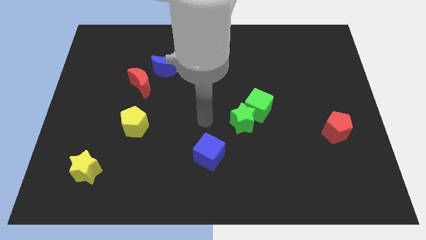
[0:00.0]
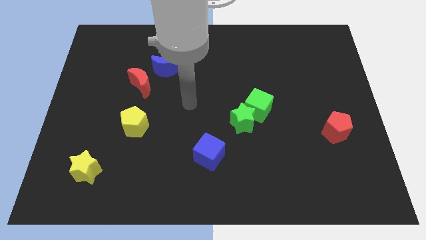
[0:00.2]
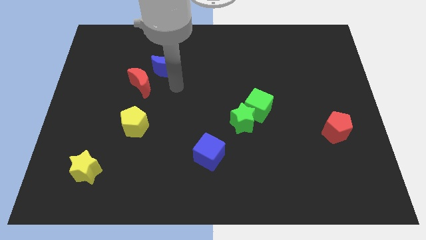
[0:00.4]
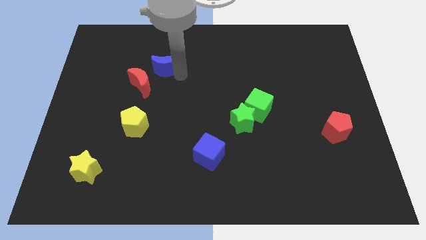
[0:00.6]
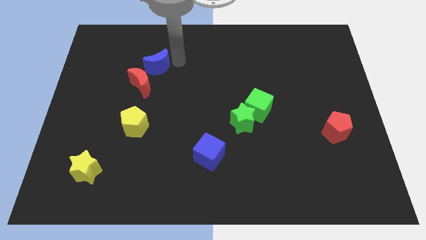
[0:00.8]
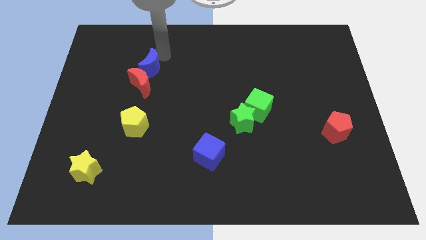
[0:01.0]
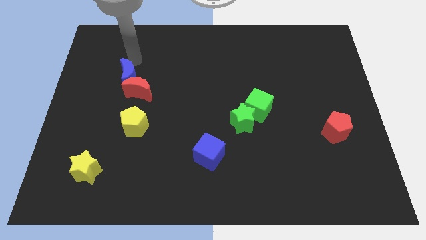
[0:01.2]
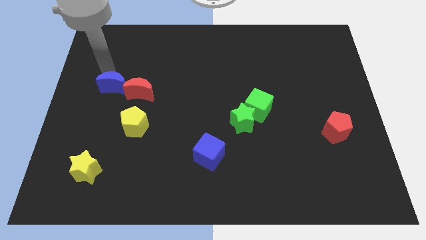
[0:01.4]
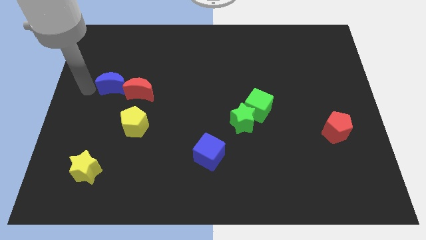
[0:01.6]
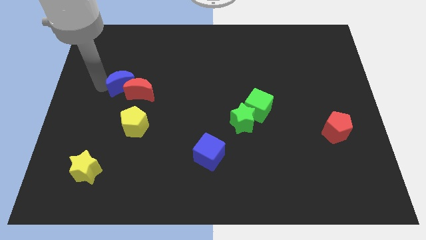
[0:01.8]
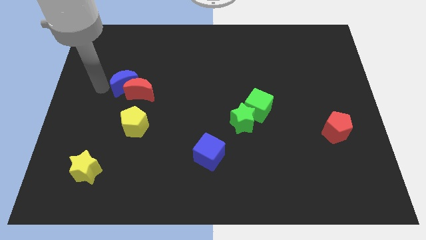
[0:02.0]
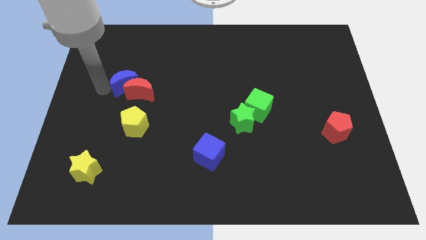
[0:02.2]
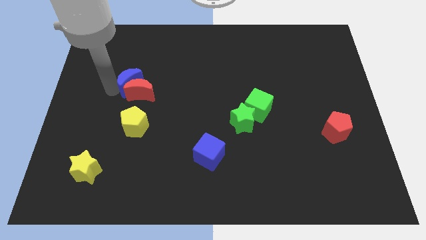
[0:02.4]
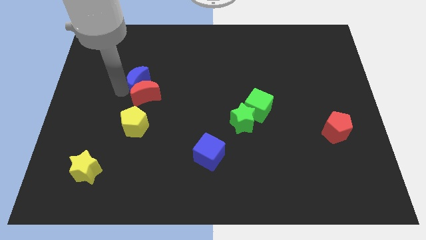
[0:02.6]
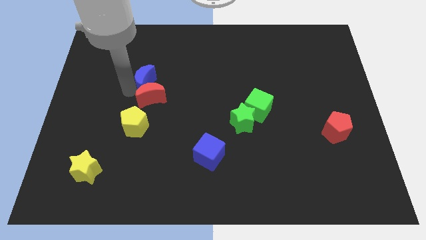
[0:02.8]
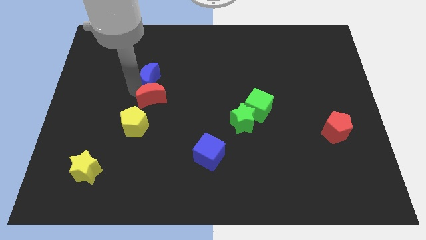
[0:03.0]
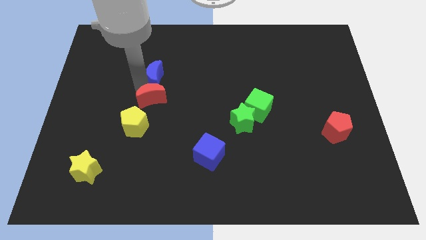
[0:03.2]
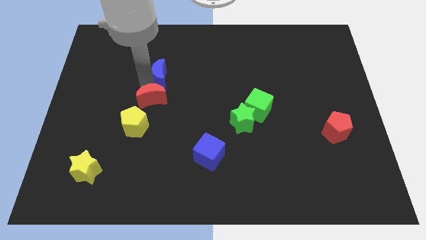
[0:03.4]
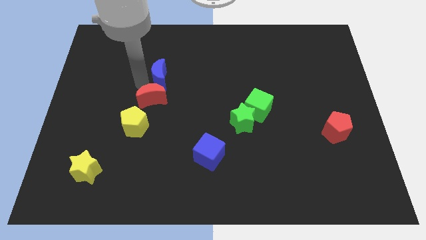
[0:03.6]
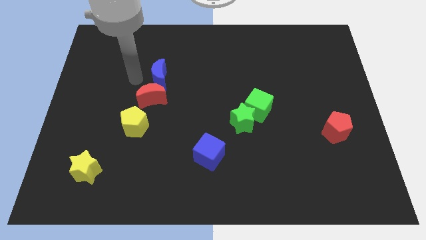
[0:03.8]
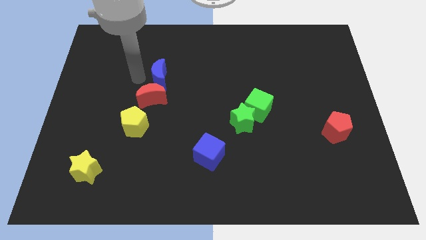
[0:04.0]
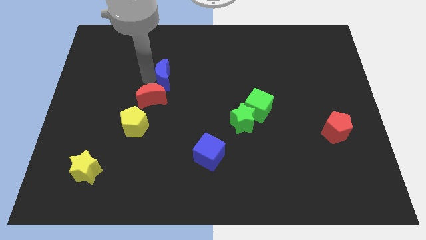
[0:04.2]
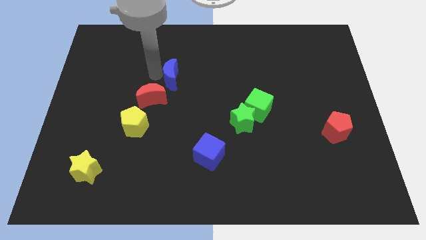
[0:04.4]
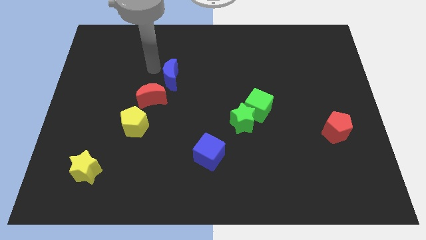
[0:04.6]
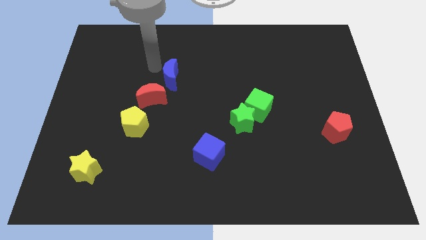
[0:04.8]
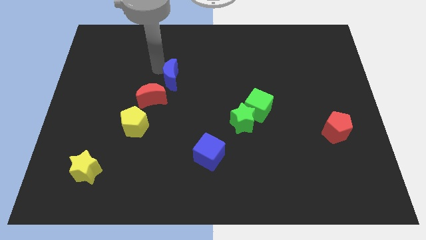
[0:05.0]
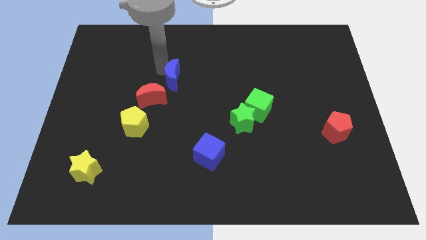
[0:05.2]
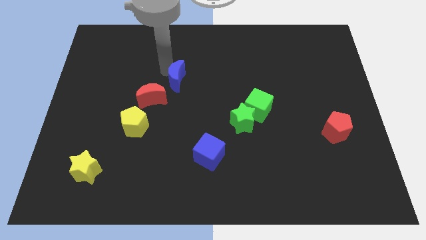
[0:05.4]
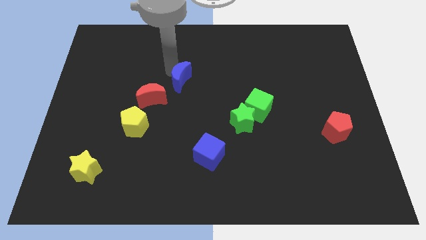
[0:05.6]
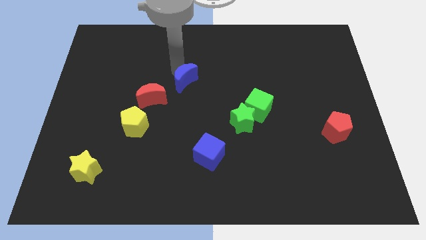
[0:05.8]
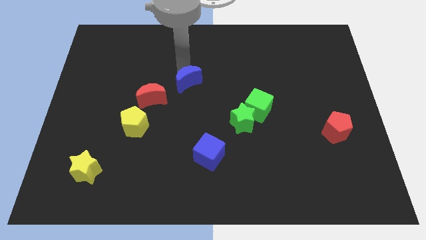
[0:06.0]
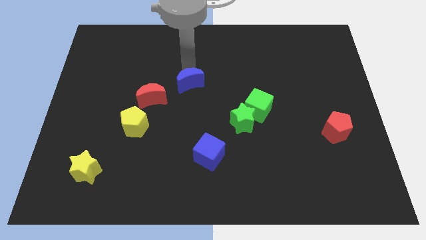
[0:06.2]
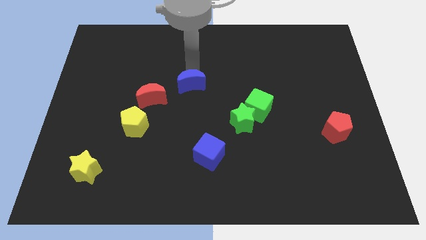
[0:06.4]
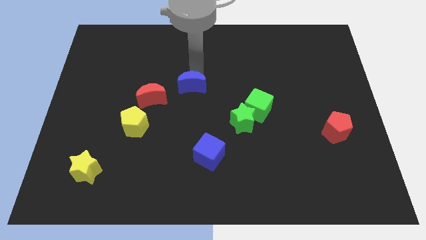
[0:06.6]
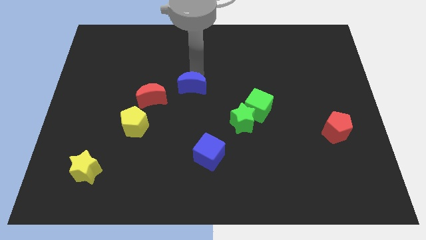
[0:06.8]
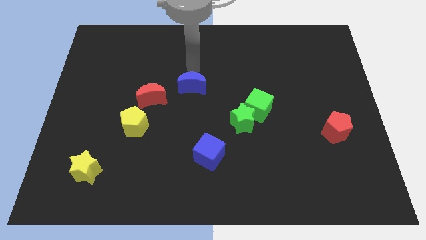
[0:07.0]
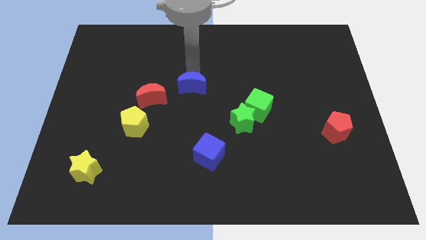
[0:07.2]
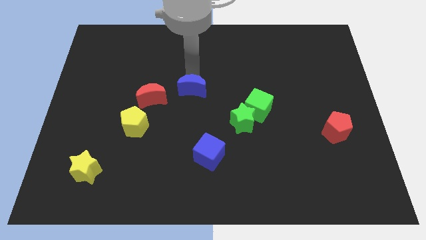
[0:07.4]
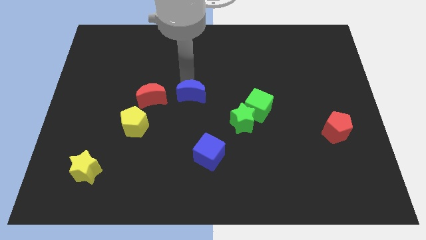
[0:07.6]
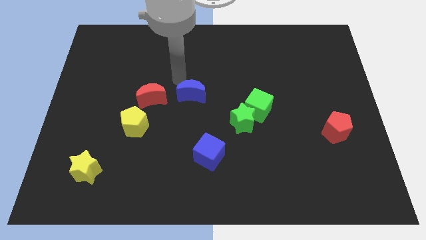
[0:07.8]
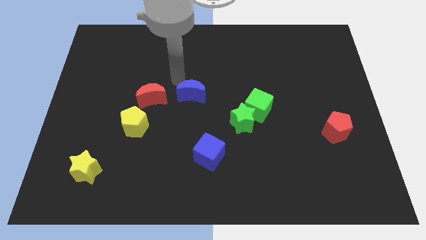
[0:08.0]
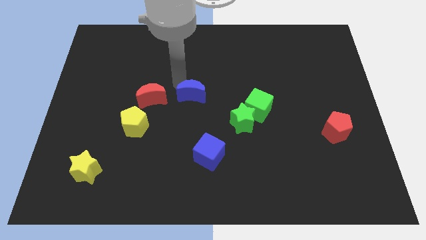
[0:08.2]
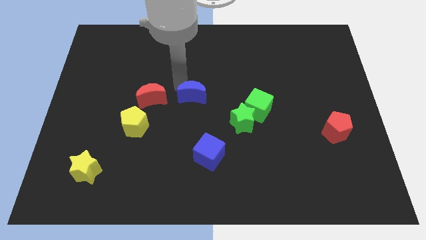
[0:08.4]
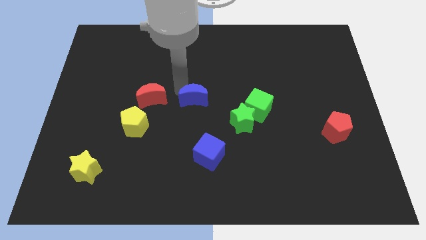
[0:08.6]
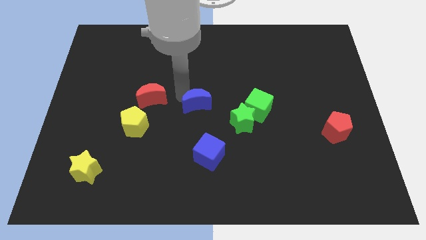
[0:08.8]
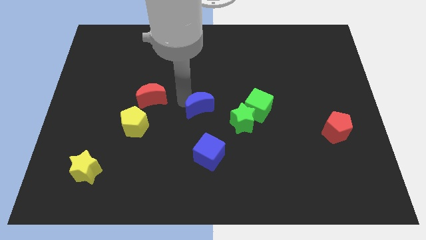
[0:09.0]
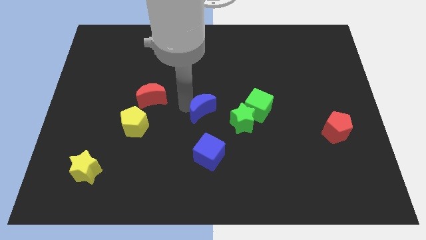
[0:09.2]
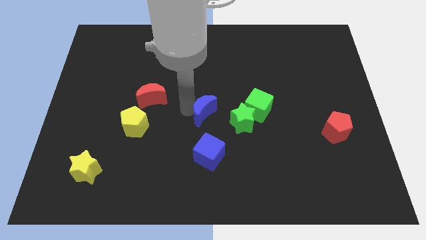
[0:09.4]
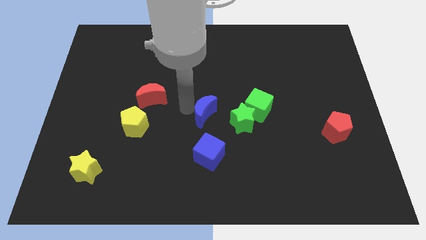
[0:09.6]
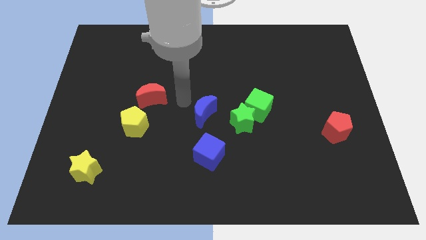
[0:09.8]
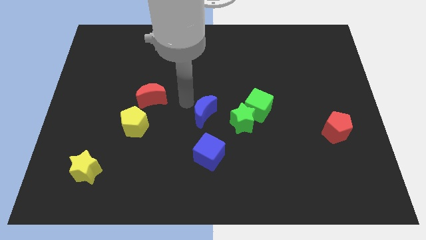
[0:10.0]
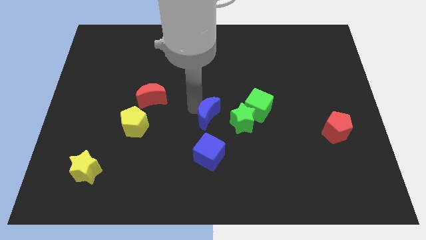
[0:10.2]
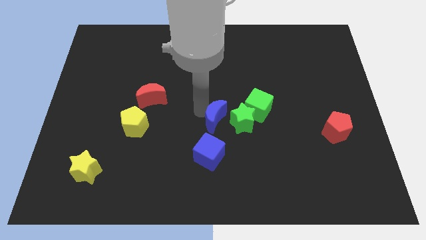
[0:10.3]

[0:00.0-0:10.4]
move the blue moon downwards and then to the right

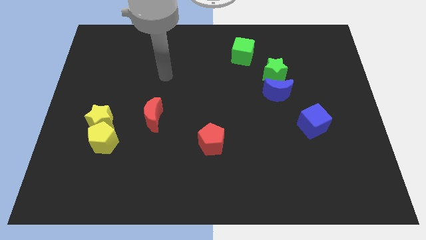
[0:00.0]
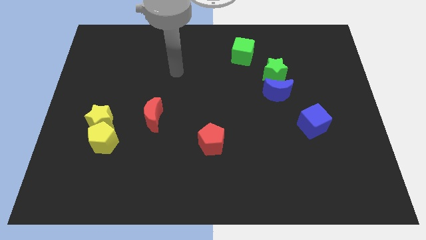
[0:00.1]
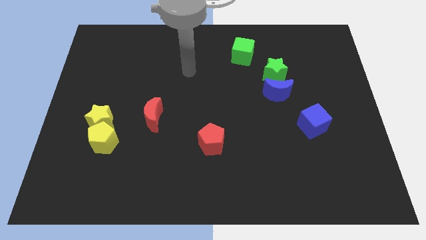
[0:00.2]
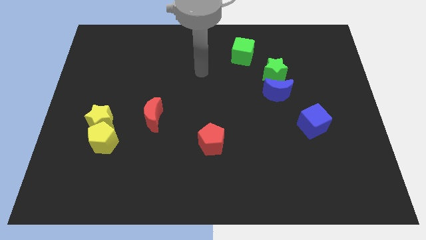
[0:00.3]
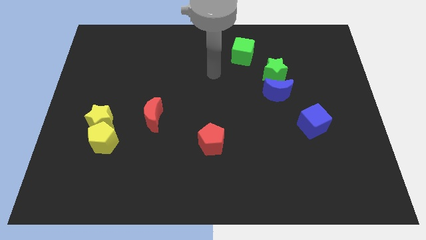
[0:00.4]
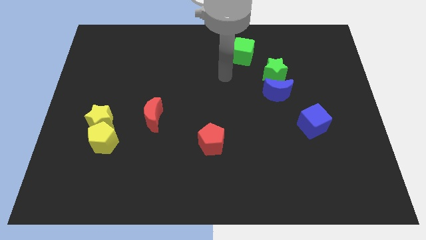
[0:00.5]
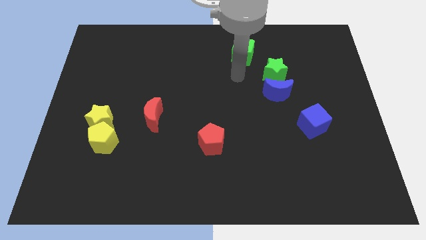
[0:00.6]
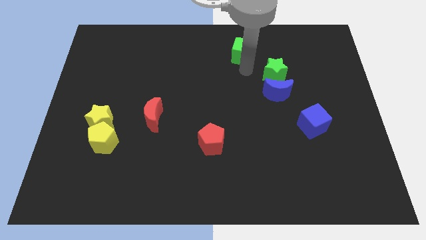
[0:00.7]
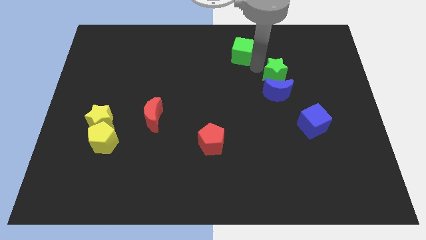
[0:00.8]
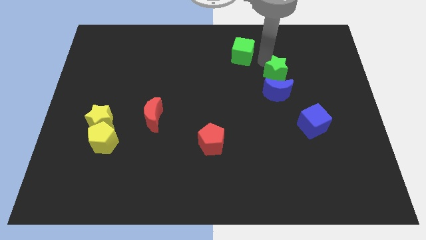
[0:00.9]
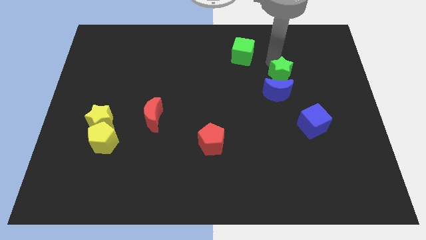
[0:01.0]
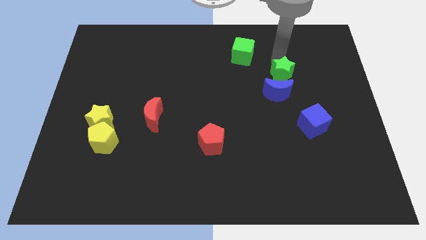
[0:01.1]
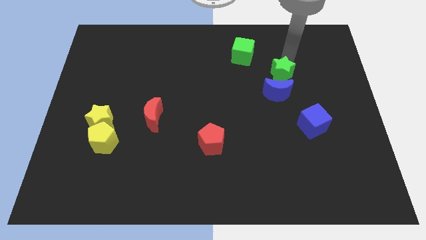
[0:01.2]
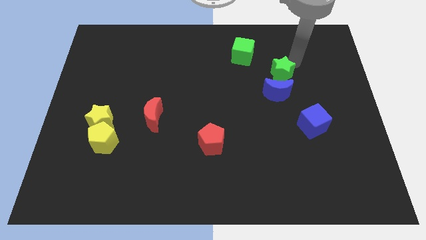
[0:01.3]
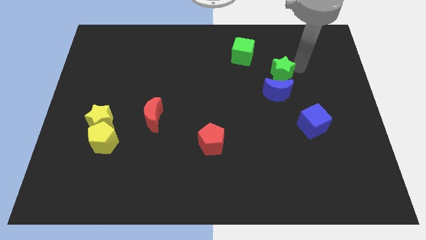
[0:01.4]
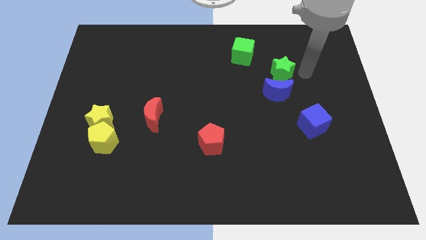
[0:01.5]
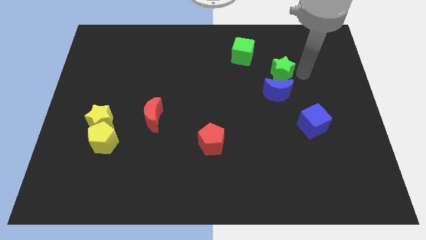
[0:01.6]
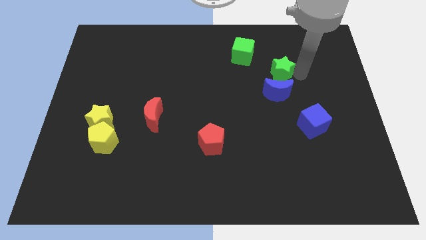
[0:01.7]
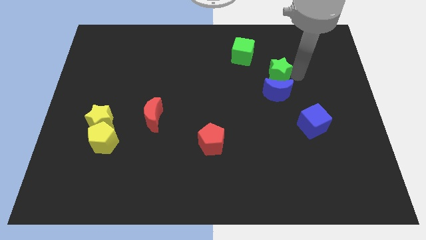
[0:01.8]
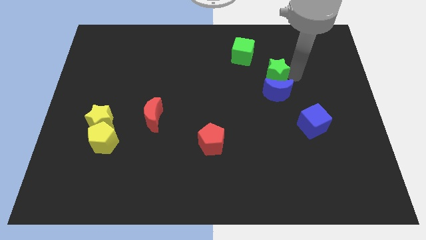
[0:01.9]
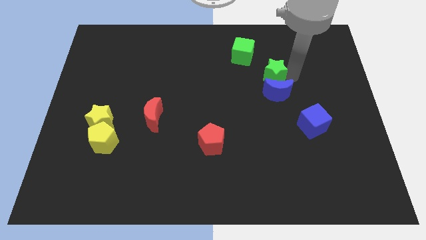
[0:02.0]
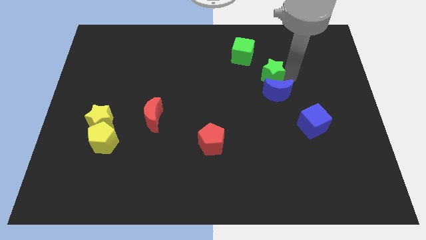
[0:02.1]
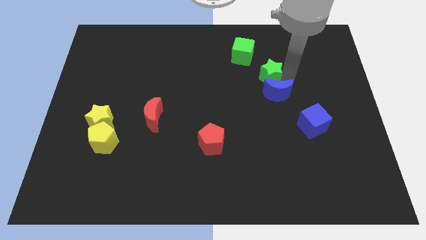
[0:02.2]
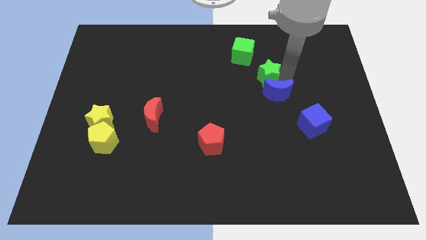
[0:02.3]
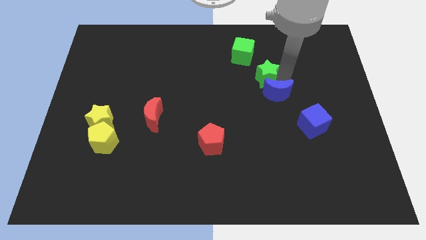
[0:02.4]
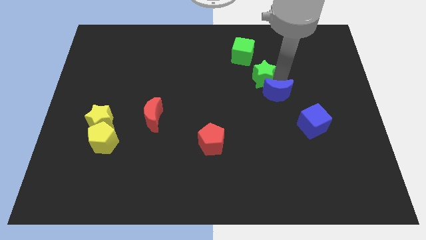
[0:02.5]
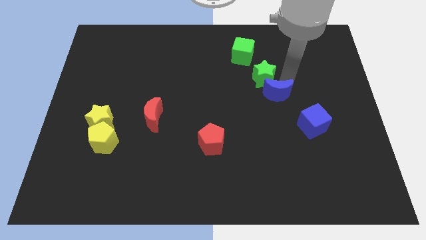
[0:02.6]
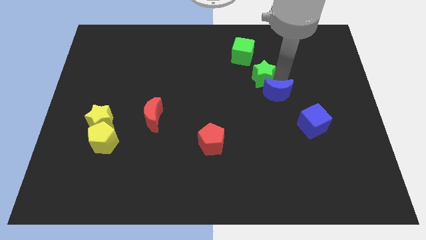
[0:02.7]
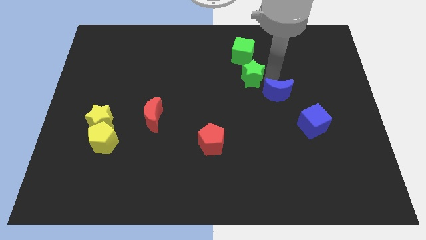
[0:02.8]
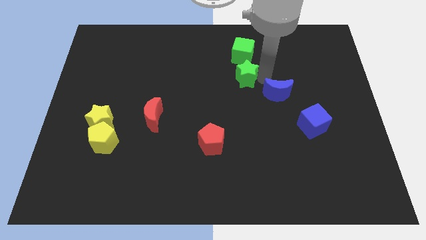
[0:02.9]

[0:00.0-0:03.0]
move the green star left a bit
